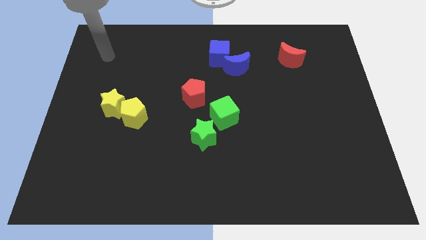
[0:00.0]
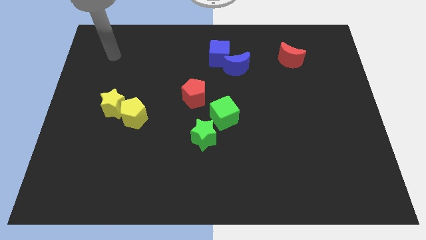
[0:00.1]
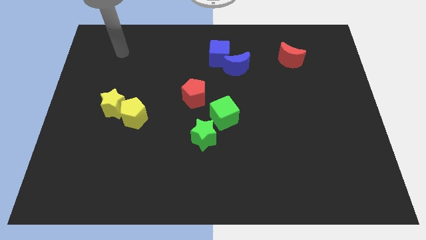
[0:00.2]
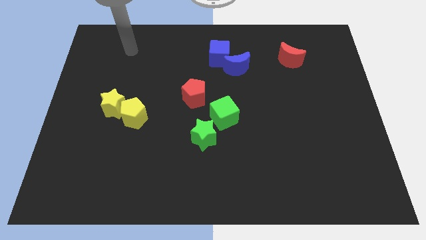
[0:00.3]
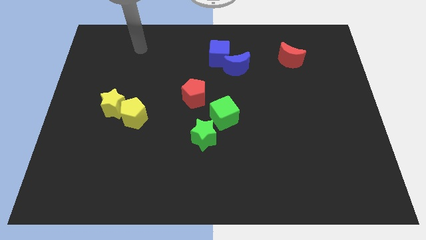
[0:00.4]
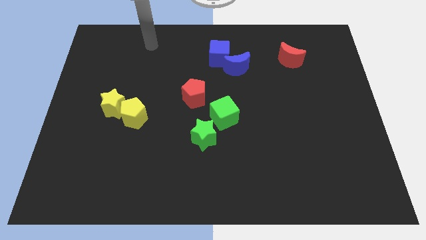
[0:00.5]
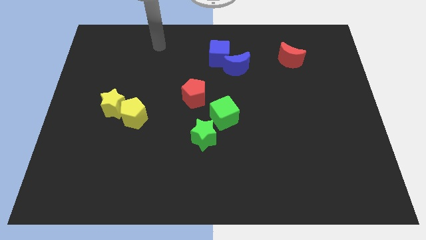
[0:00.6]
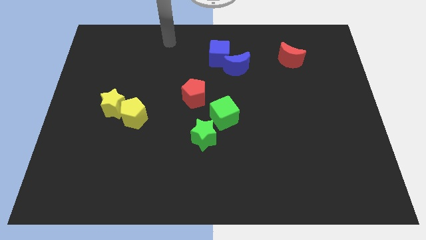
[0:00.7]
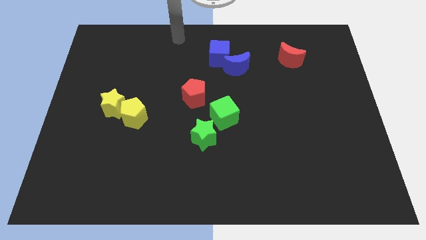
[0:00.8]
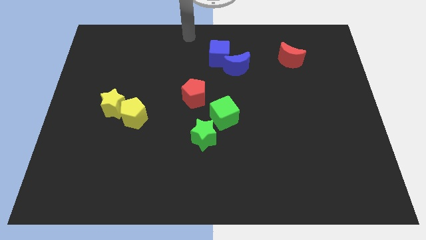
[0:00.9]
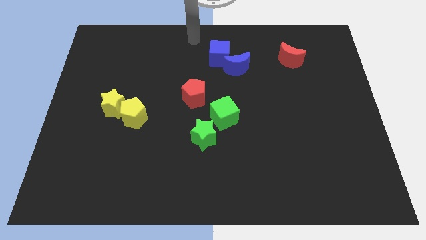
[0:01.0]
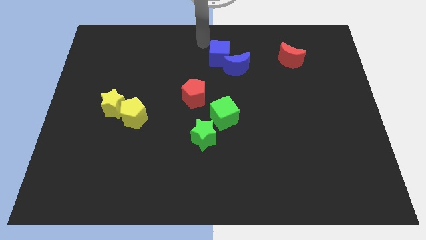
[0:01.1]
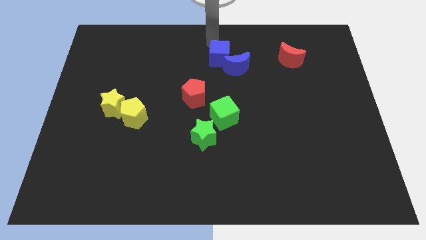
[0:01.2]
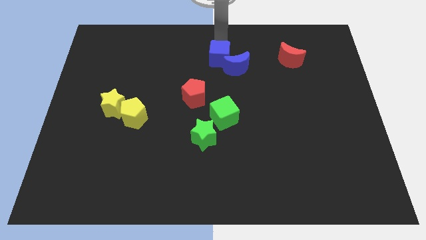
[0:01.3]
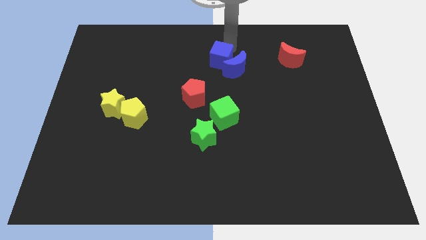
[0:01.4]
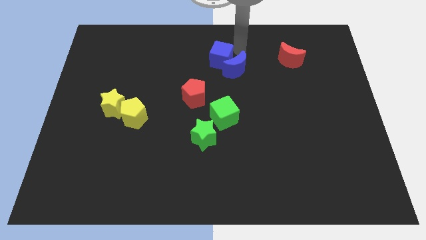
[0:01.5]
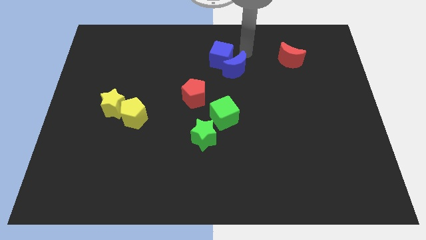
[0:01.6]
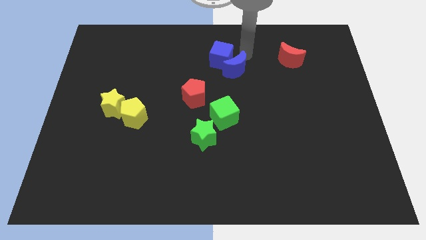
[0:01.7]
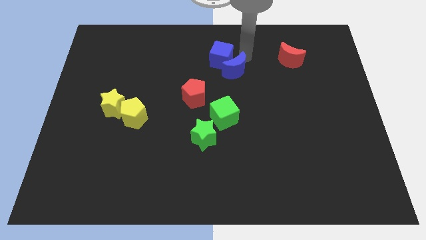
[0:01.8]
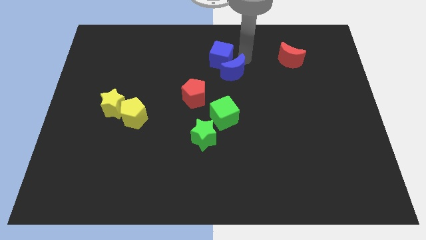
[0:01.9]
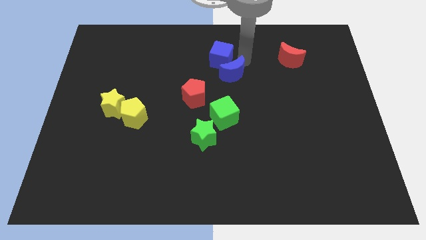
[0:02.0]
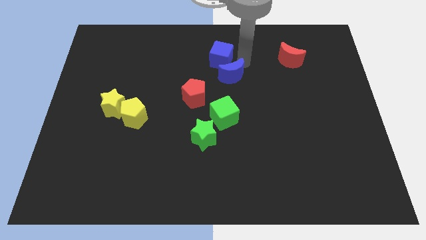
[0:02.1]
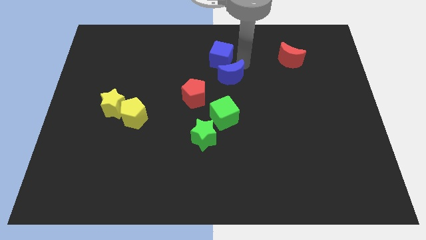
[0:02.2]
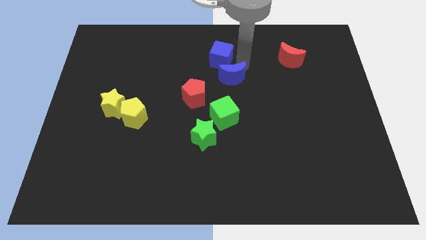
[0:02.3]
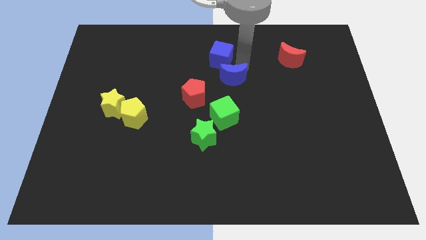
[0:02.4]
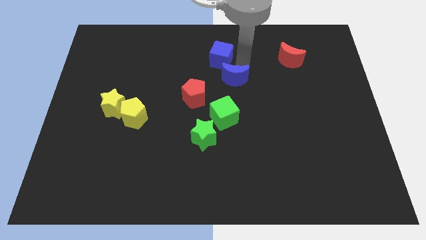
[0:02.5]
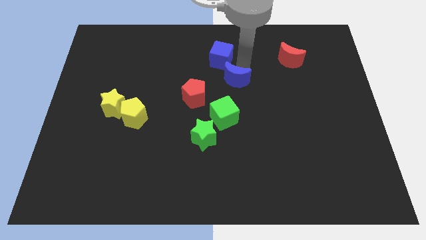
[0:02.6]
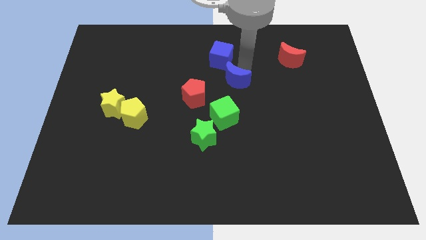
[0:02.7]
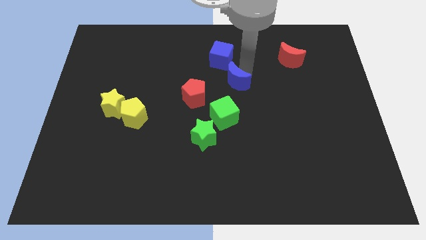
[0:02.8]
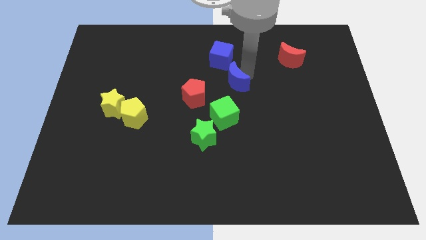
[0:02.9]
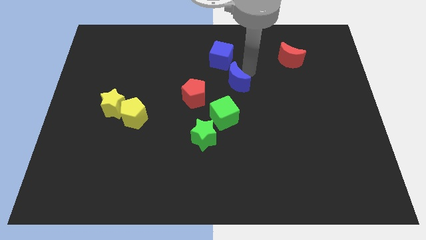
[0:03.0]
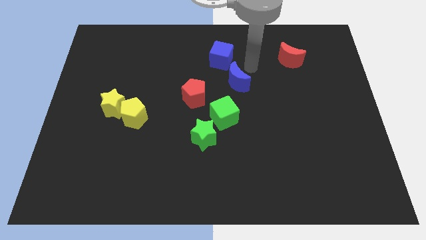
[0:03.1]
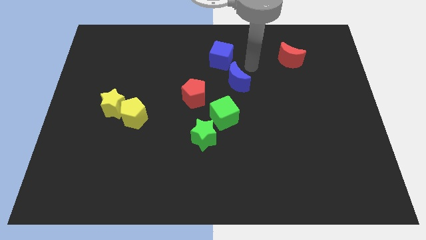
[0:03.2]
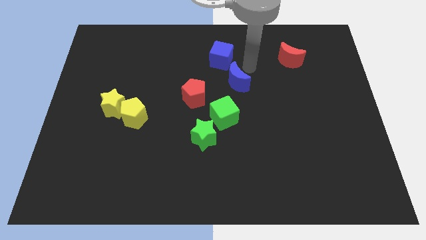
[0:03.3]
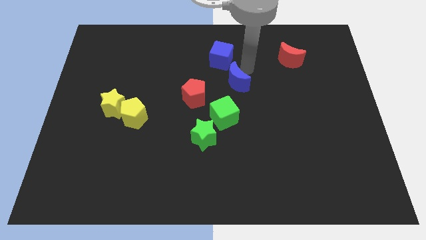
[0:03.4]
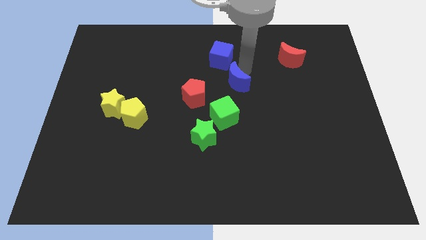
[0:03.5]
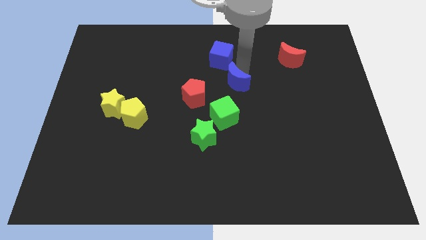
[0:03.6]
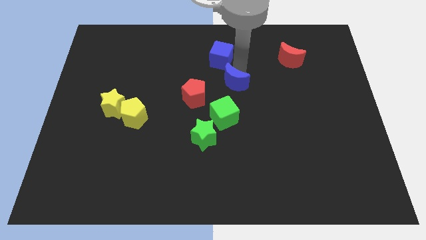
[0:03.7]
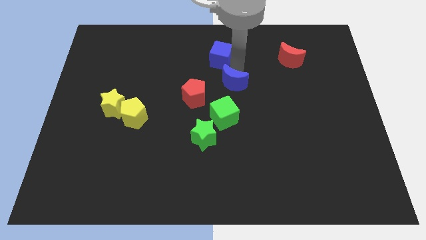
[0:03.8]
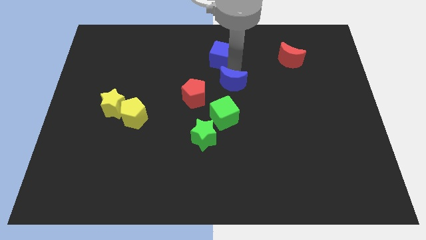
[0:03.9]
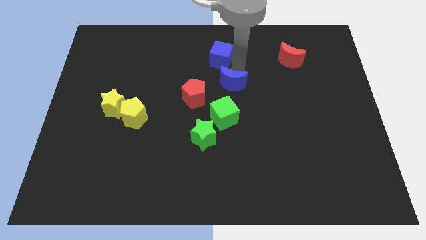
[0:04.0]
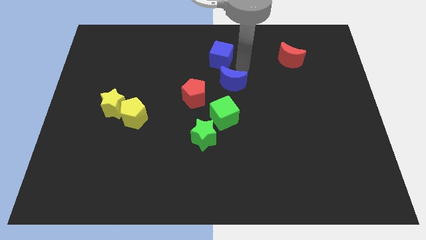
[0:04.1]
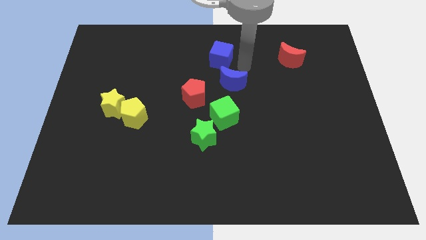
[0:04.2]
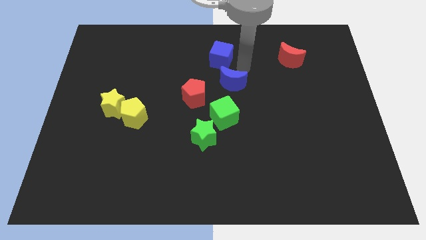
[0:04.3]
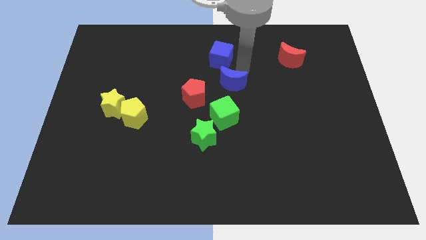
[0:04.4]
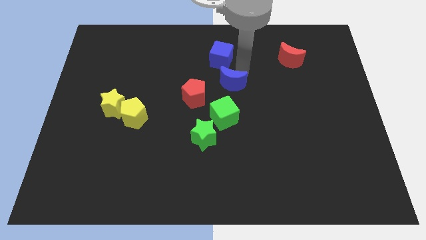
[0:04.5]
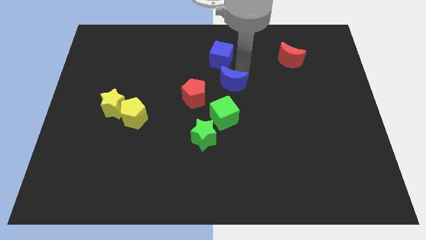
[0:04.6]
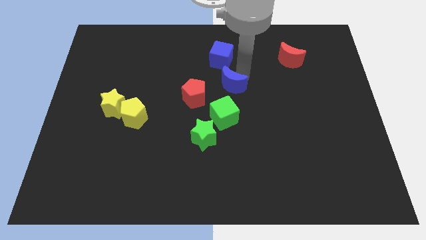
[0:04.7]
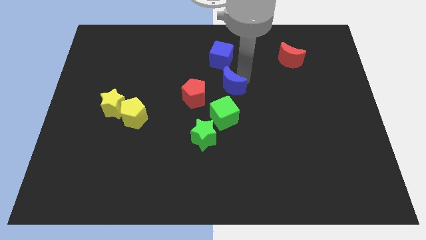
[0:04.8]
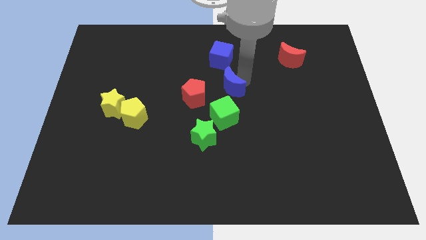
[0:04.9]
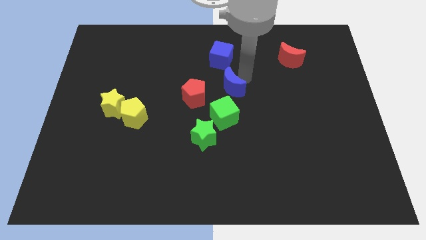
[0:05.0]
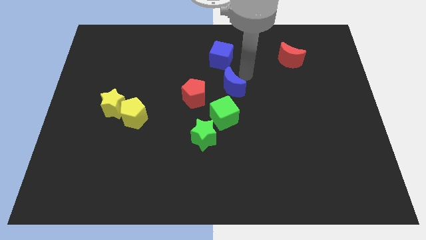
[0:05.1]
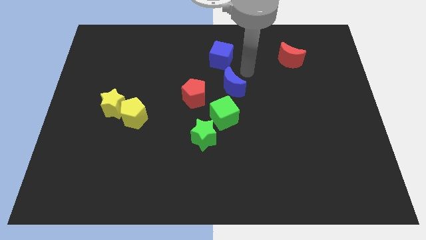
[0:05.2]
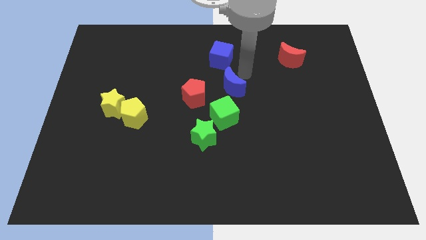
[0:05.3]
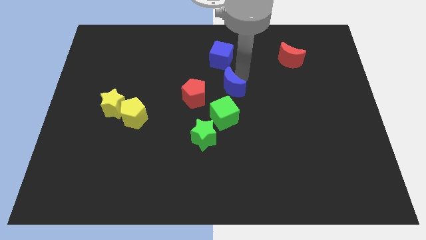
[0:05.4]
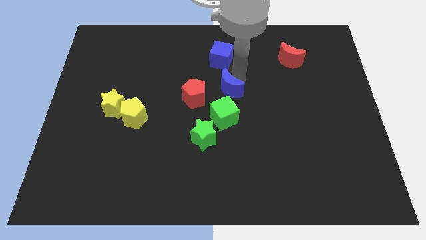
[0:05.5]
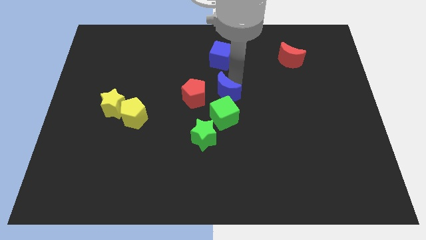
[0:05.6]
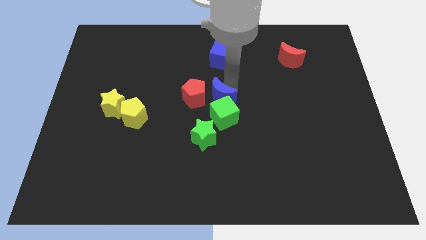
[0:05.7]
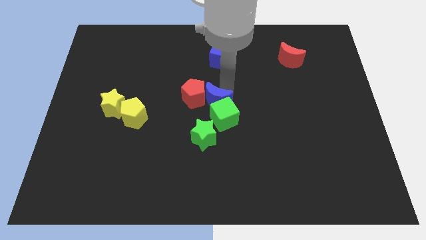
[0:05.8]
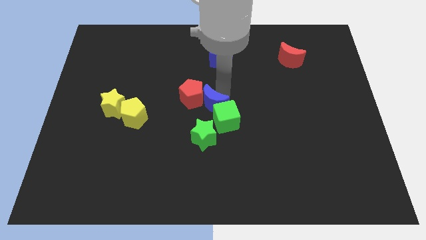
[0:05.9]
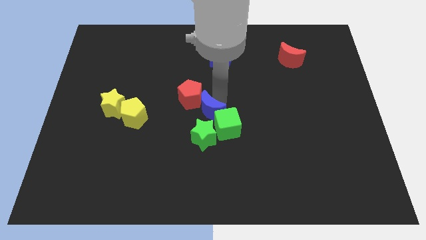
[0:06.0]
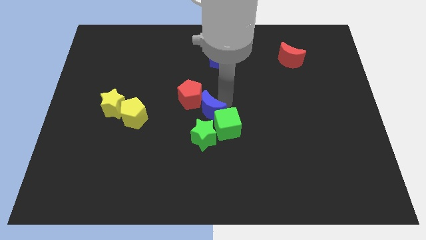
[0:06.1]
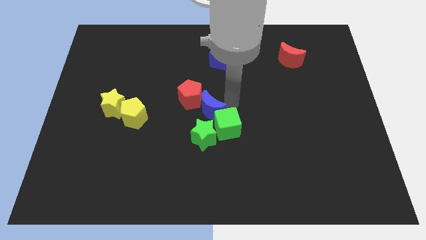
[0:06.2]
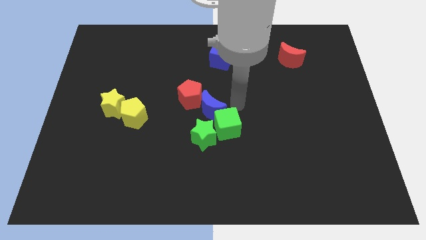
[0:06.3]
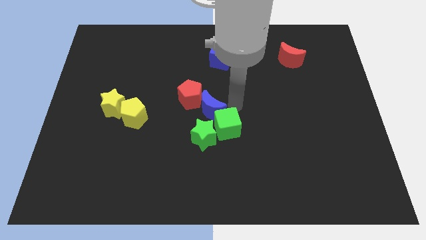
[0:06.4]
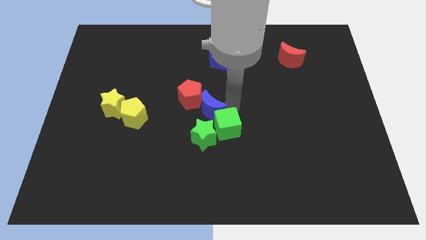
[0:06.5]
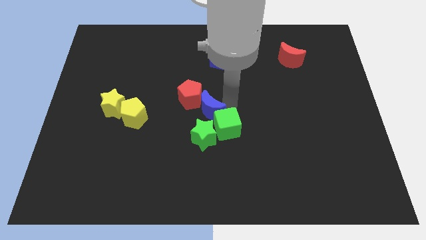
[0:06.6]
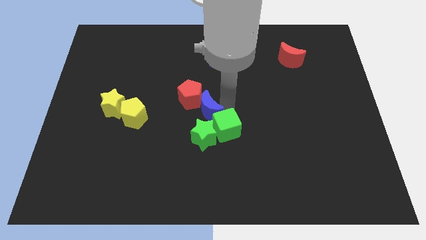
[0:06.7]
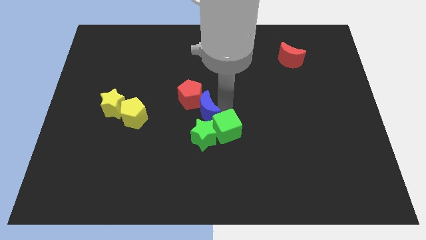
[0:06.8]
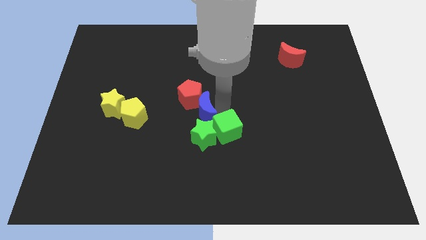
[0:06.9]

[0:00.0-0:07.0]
move the blue moon just right of the yellow pentagon
